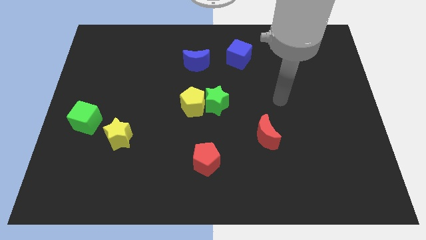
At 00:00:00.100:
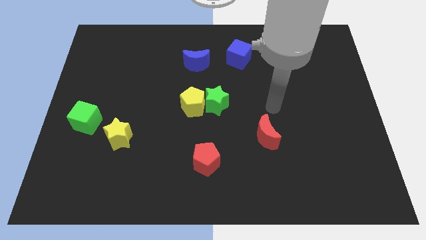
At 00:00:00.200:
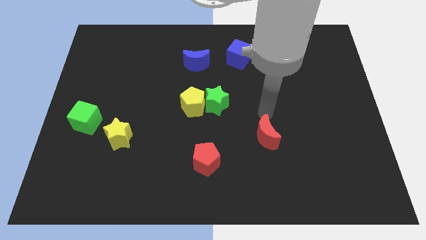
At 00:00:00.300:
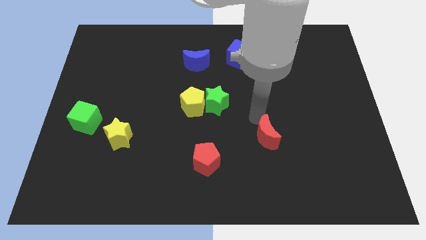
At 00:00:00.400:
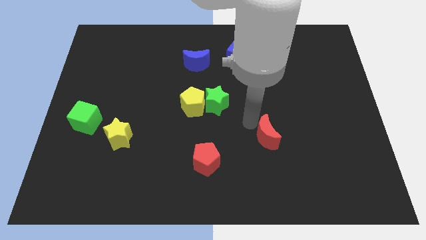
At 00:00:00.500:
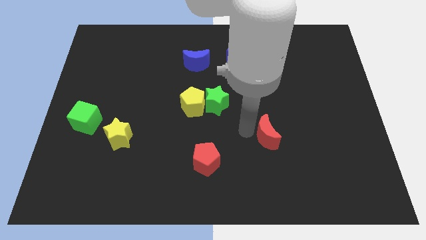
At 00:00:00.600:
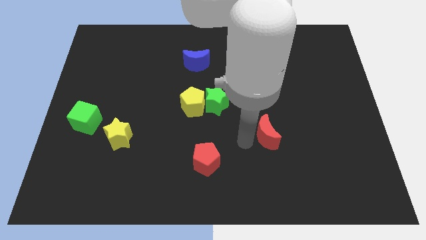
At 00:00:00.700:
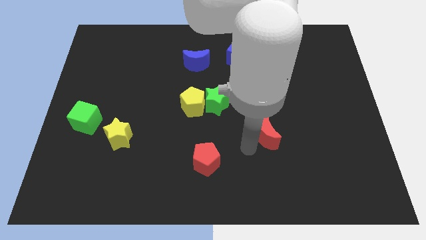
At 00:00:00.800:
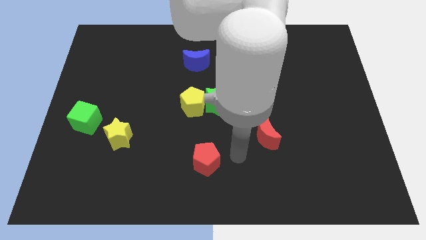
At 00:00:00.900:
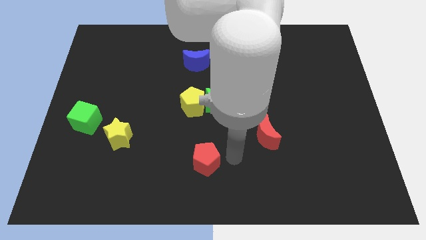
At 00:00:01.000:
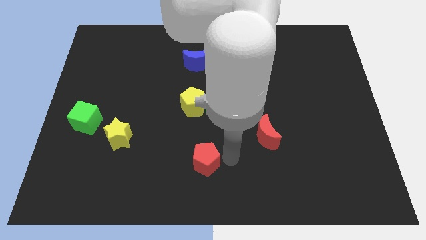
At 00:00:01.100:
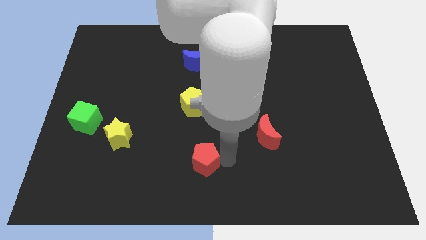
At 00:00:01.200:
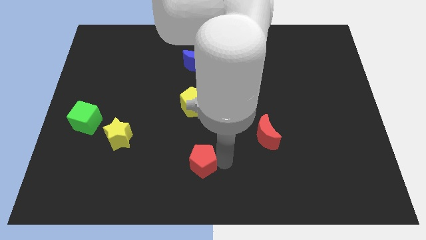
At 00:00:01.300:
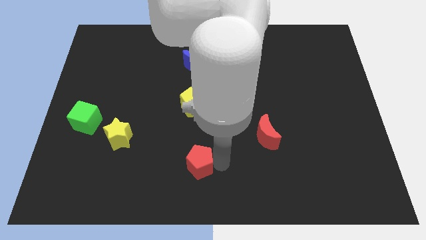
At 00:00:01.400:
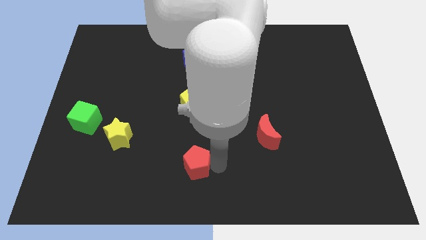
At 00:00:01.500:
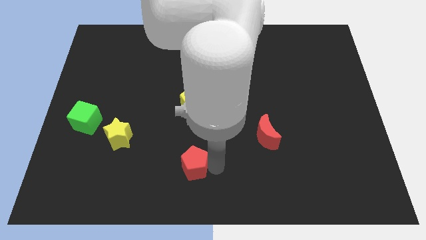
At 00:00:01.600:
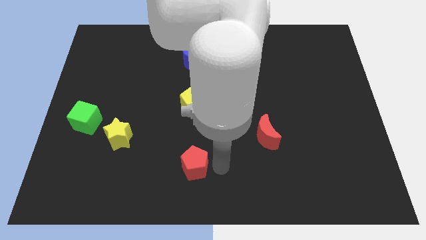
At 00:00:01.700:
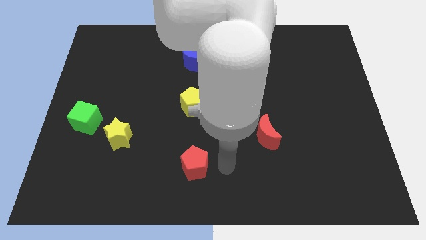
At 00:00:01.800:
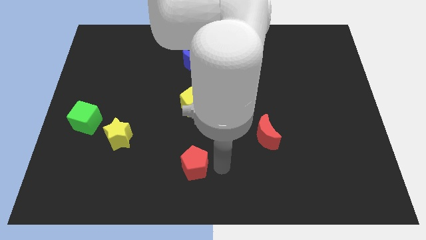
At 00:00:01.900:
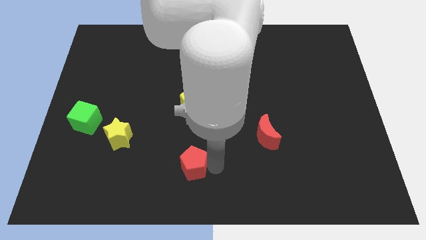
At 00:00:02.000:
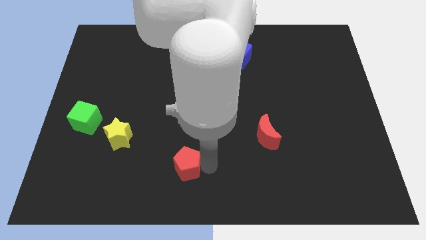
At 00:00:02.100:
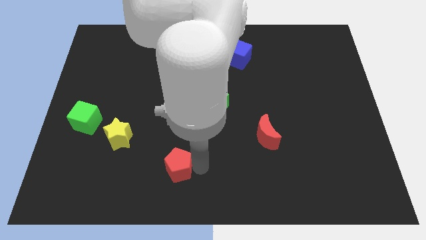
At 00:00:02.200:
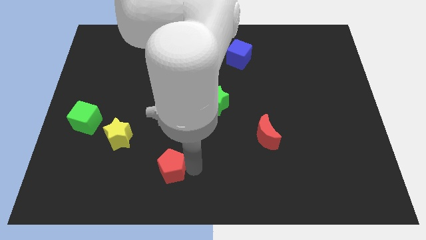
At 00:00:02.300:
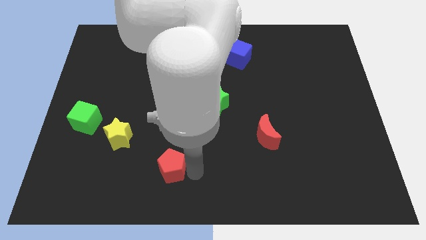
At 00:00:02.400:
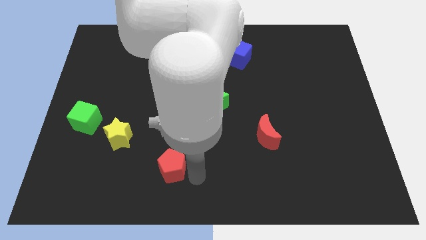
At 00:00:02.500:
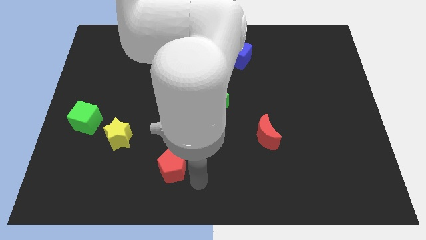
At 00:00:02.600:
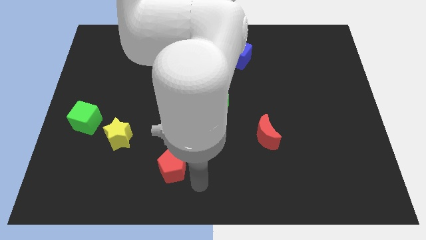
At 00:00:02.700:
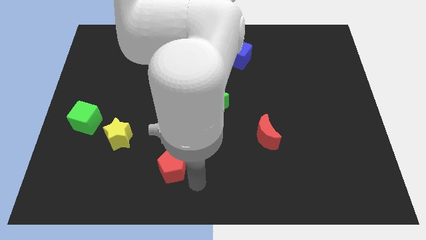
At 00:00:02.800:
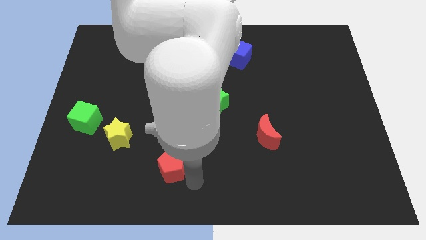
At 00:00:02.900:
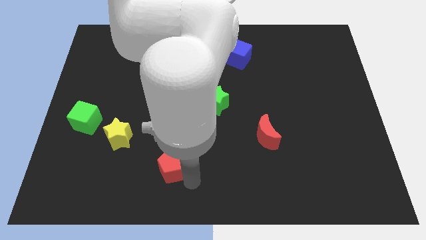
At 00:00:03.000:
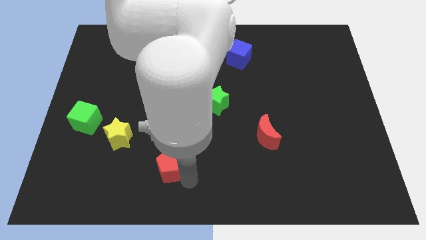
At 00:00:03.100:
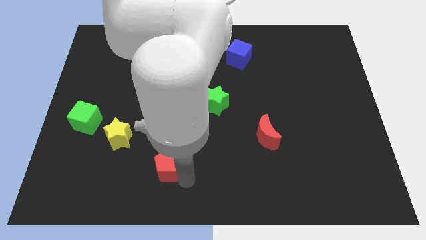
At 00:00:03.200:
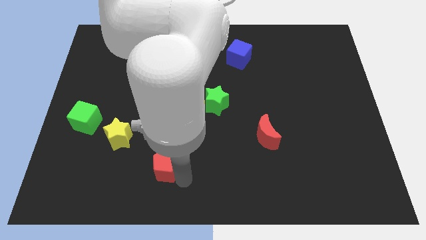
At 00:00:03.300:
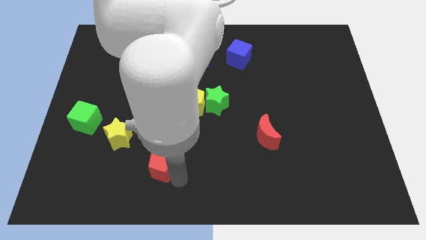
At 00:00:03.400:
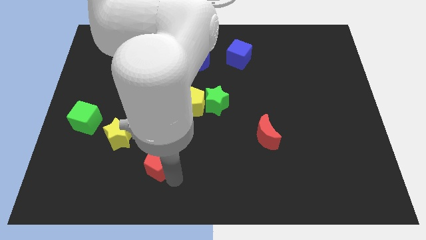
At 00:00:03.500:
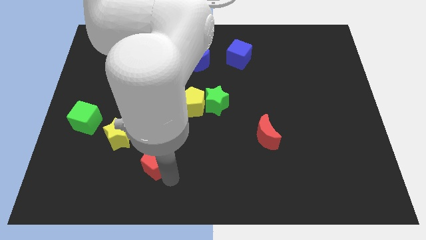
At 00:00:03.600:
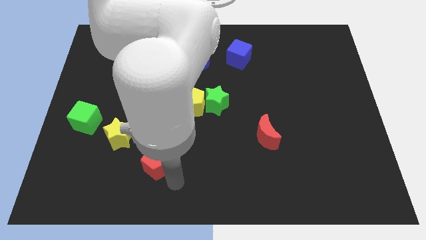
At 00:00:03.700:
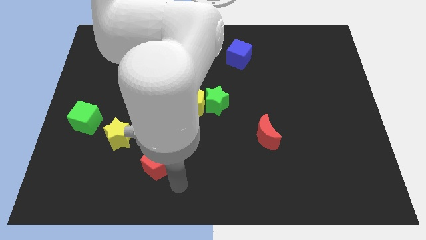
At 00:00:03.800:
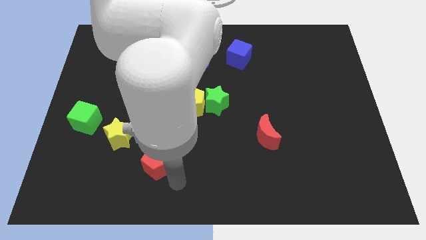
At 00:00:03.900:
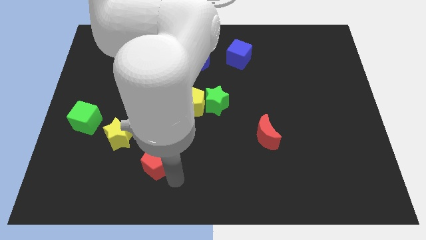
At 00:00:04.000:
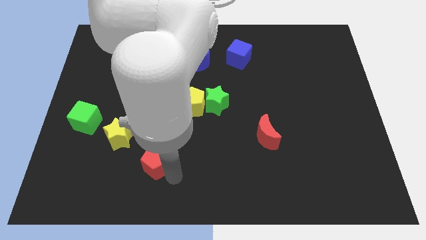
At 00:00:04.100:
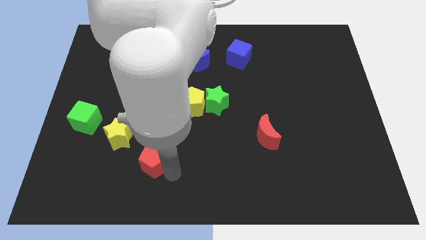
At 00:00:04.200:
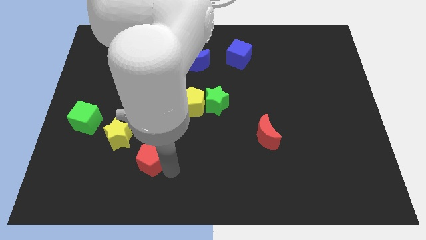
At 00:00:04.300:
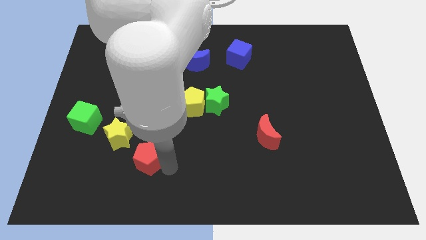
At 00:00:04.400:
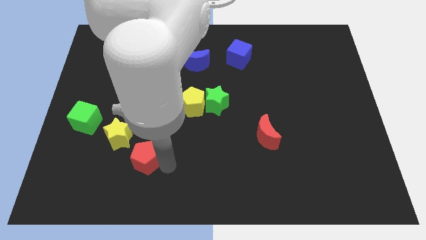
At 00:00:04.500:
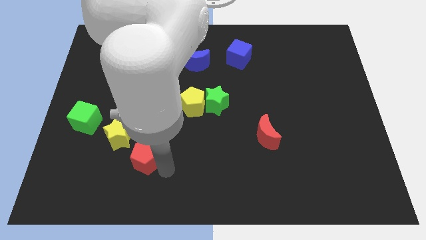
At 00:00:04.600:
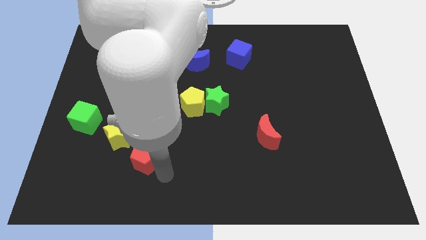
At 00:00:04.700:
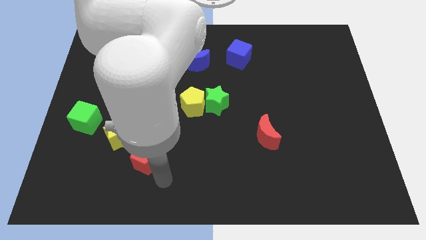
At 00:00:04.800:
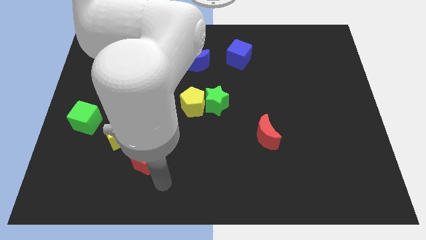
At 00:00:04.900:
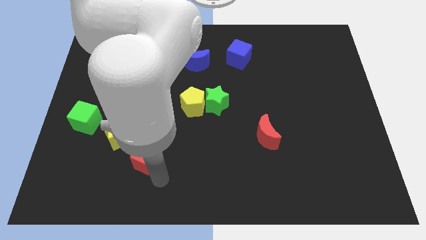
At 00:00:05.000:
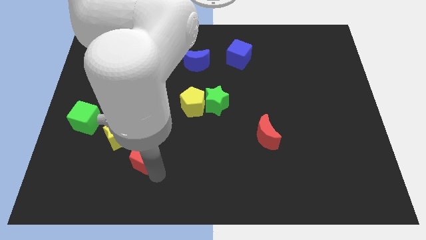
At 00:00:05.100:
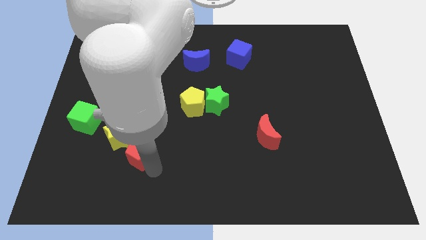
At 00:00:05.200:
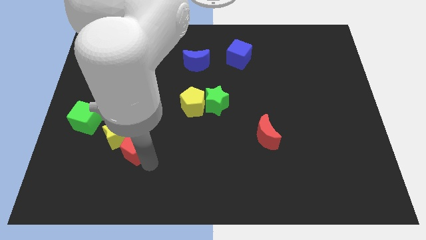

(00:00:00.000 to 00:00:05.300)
push the red pentagon close to the yellow star
